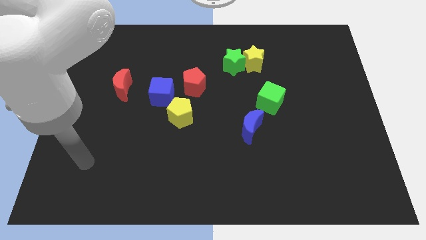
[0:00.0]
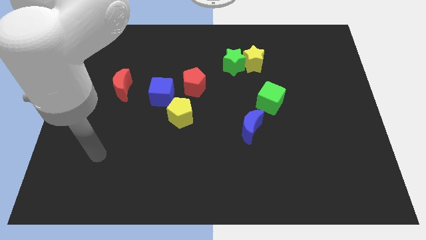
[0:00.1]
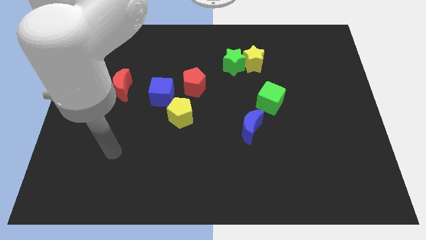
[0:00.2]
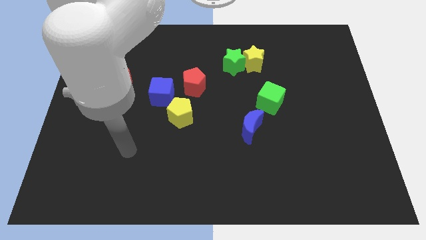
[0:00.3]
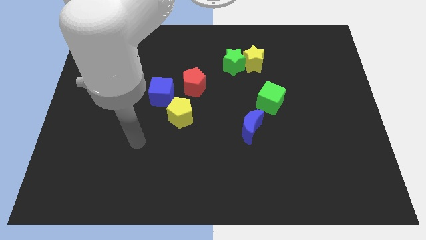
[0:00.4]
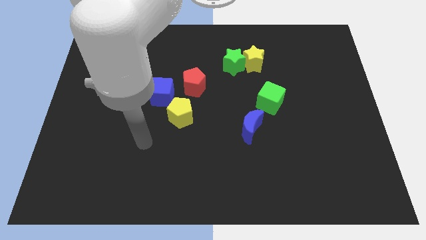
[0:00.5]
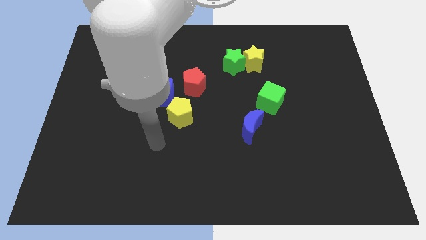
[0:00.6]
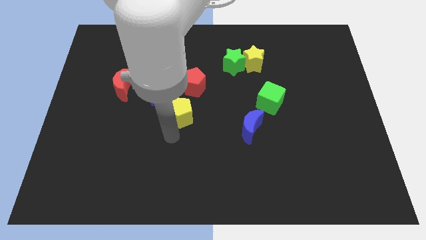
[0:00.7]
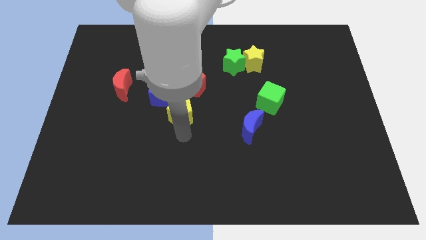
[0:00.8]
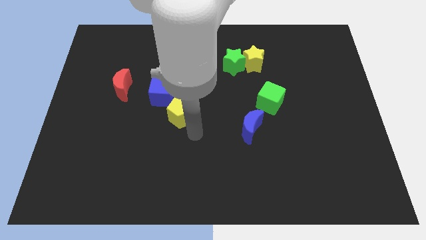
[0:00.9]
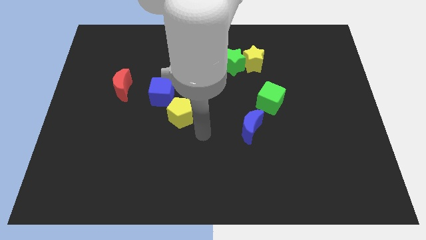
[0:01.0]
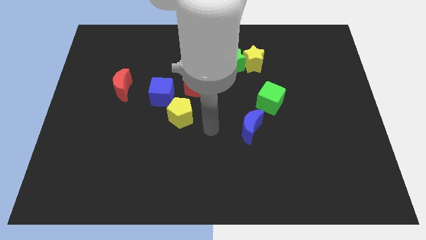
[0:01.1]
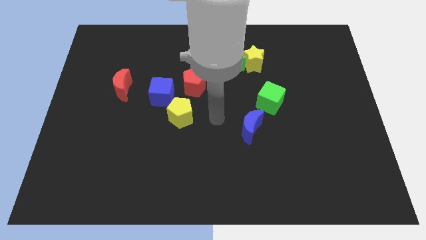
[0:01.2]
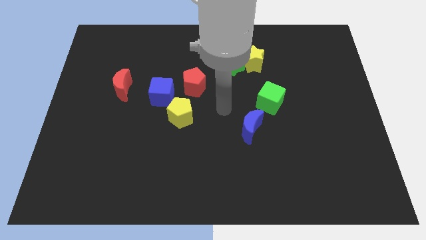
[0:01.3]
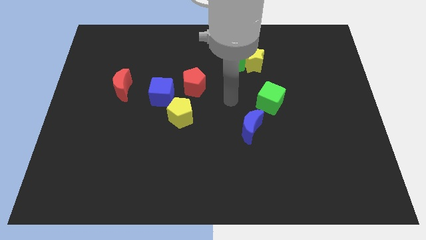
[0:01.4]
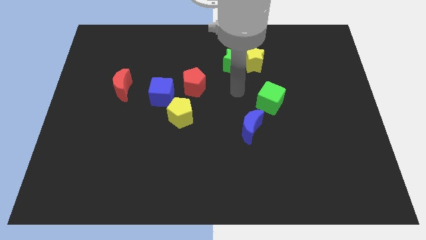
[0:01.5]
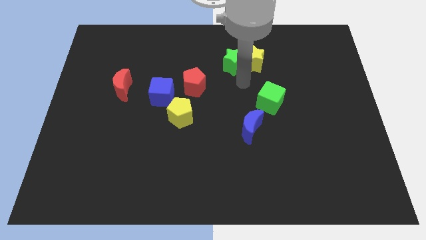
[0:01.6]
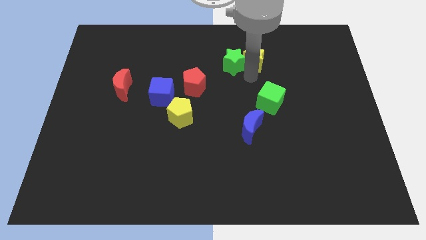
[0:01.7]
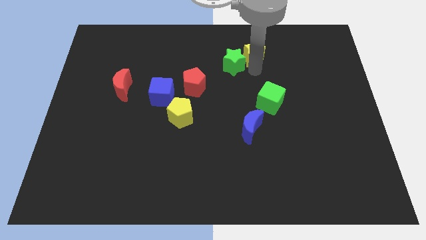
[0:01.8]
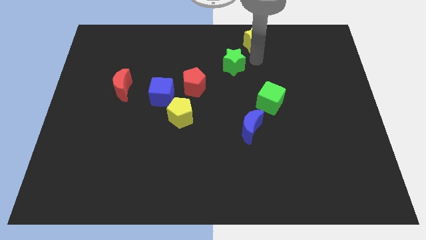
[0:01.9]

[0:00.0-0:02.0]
separate the green star from the yellow star

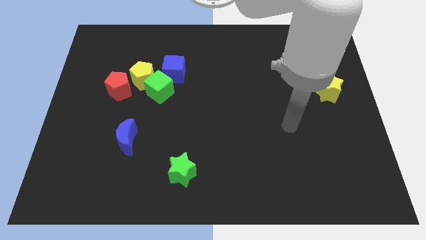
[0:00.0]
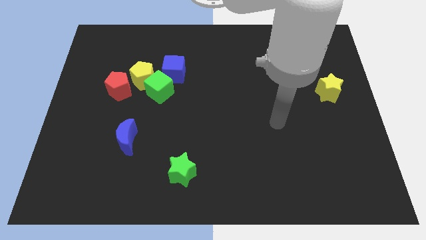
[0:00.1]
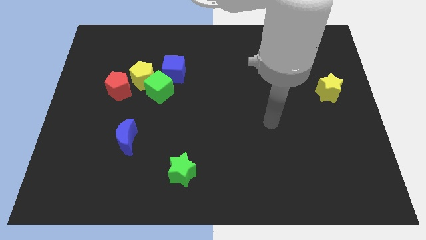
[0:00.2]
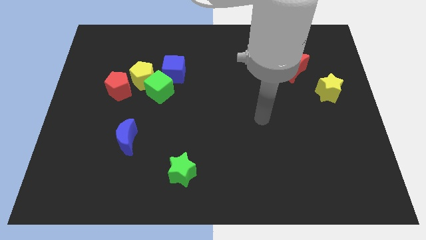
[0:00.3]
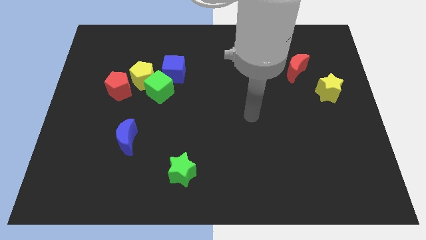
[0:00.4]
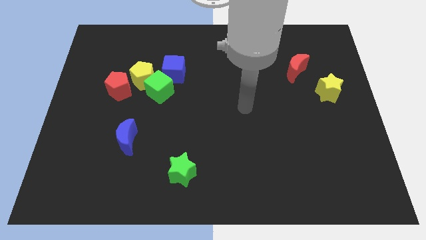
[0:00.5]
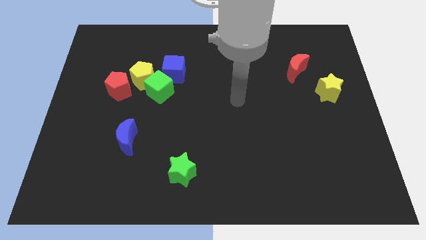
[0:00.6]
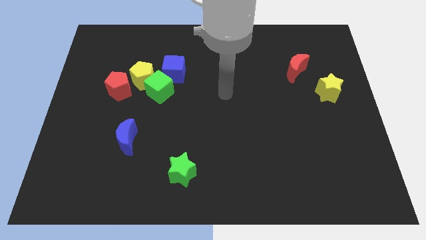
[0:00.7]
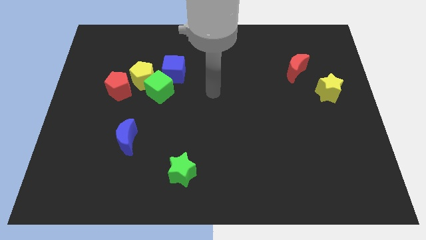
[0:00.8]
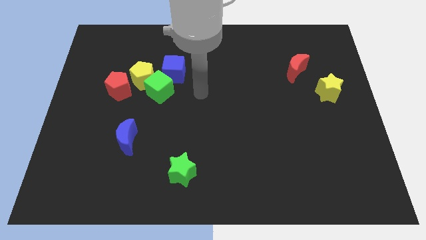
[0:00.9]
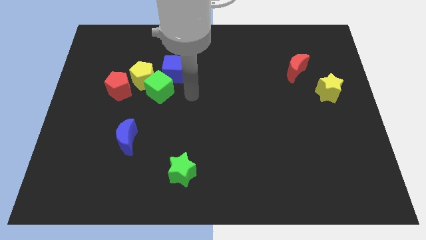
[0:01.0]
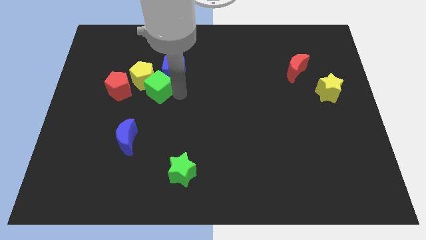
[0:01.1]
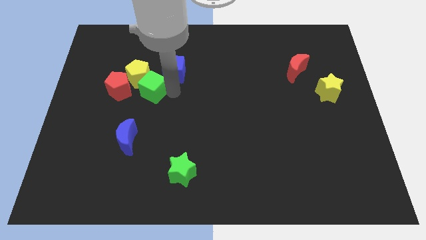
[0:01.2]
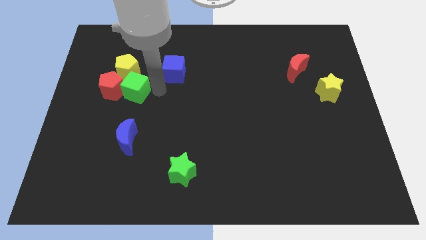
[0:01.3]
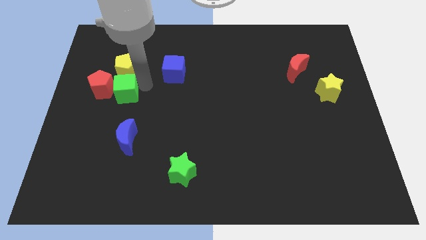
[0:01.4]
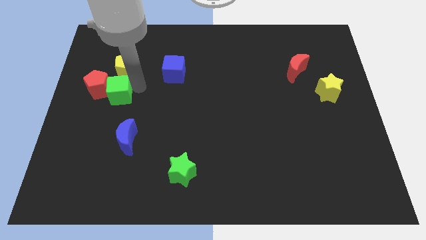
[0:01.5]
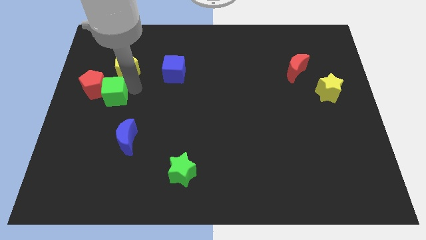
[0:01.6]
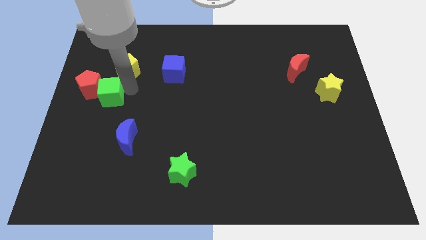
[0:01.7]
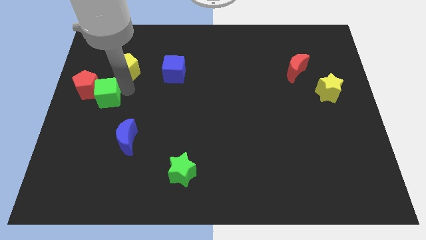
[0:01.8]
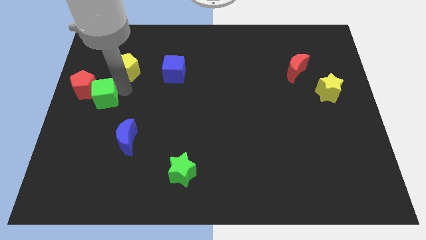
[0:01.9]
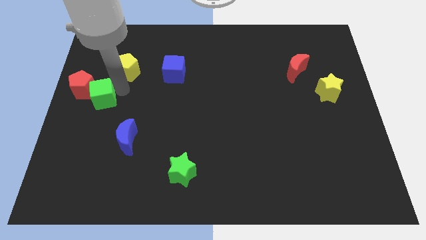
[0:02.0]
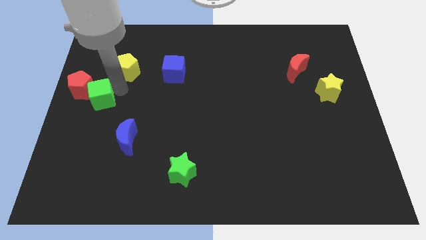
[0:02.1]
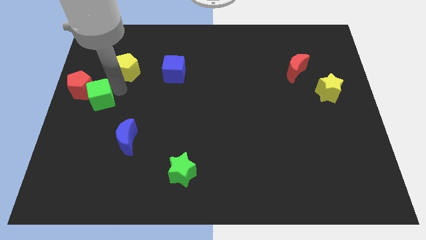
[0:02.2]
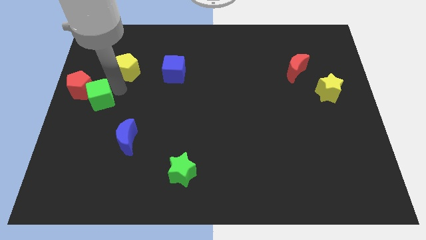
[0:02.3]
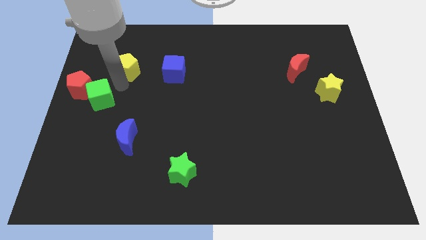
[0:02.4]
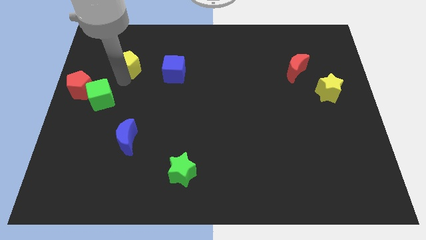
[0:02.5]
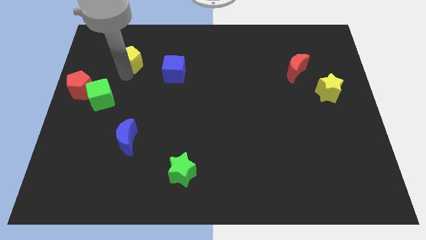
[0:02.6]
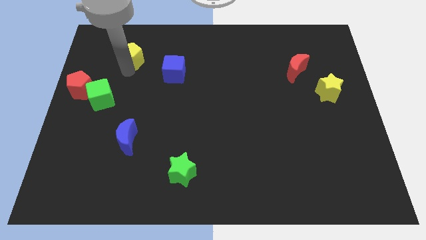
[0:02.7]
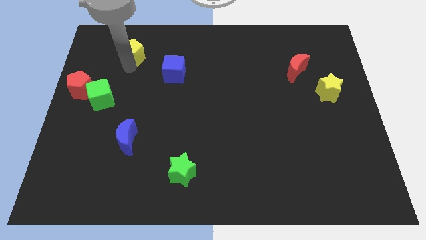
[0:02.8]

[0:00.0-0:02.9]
move the yellow pentagon away from the group of blocks

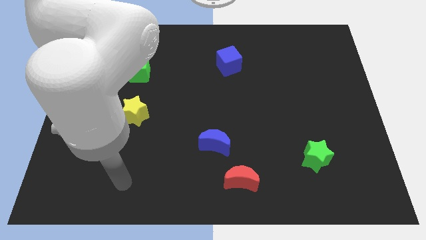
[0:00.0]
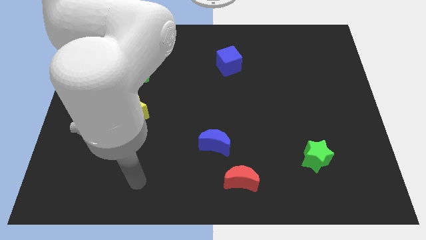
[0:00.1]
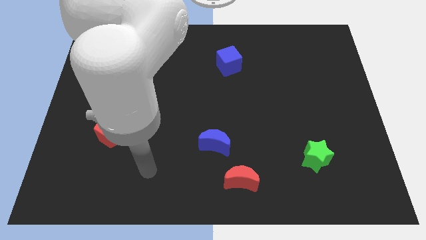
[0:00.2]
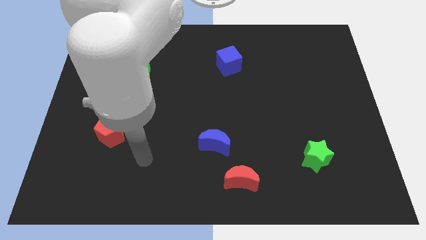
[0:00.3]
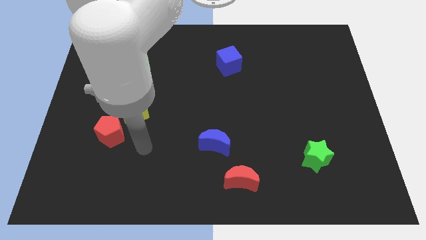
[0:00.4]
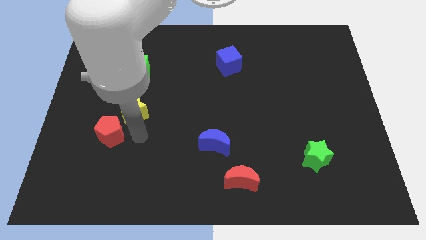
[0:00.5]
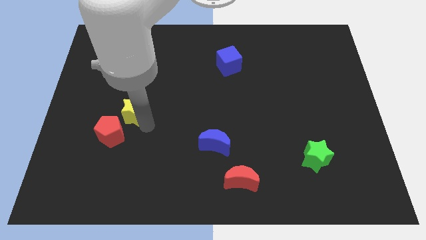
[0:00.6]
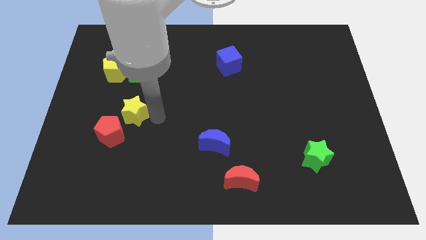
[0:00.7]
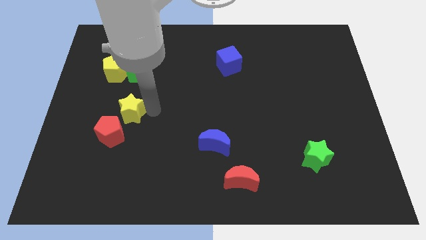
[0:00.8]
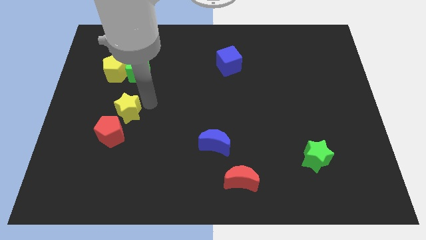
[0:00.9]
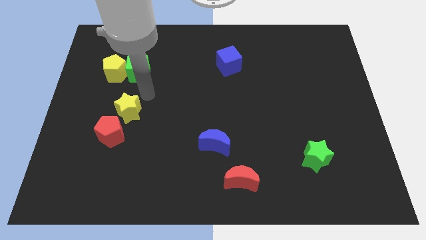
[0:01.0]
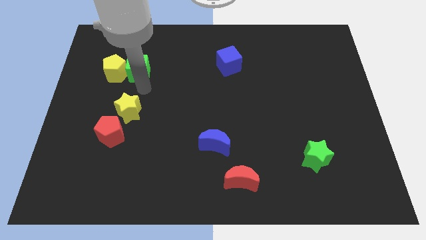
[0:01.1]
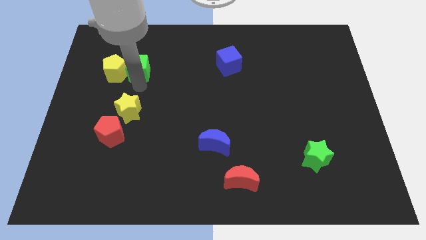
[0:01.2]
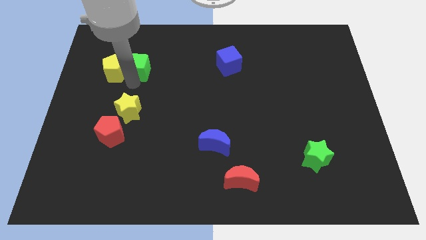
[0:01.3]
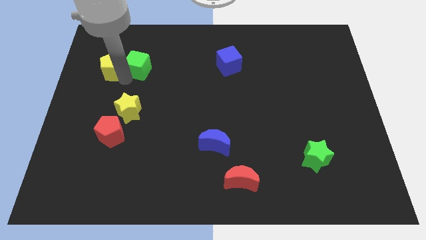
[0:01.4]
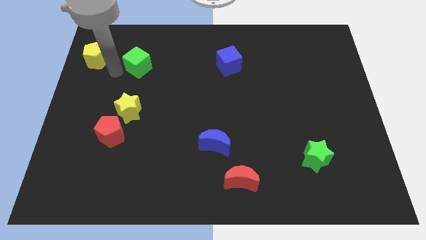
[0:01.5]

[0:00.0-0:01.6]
pull the green cube apart from the yellow pentagon

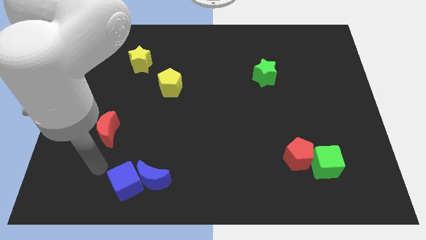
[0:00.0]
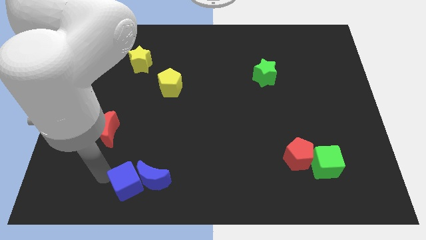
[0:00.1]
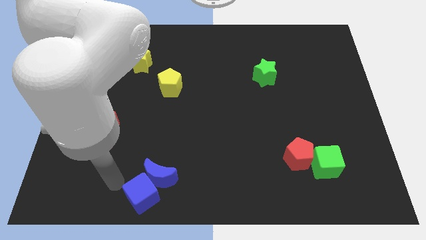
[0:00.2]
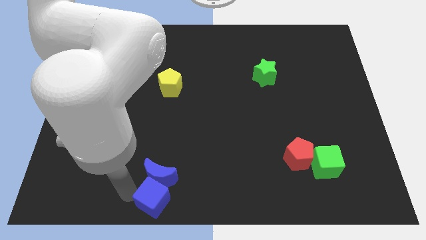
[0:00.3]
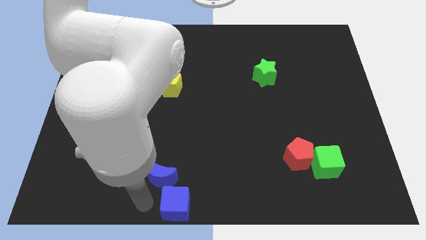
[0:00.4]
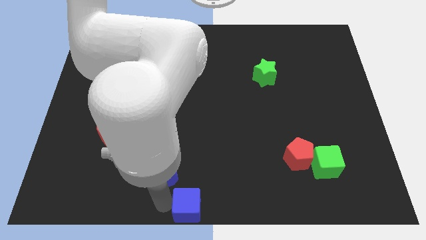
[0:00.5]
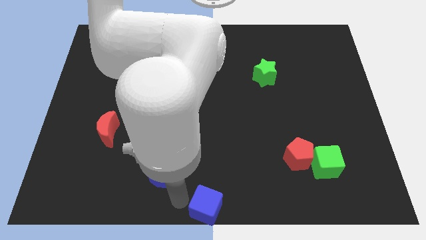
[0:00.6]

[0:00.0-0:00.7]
move the blue moon away from the blue cube

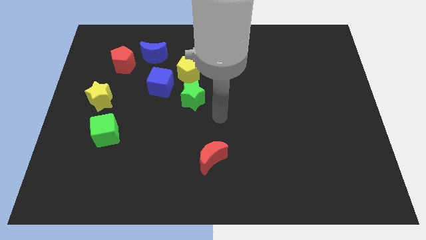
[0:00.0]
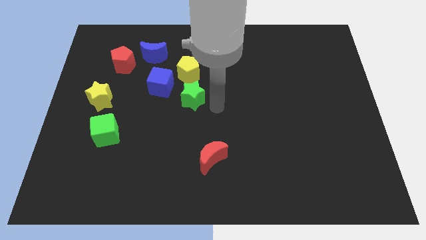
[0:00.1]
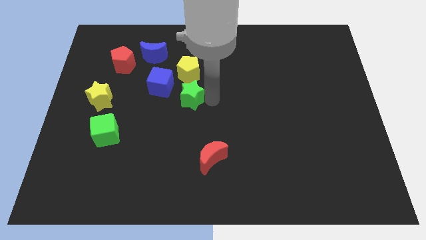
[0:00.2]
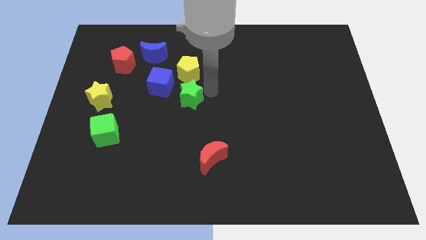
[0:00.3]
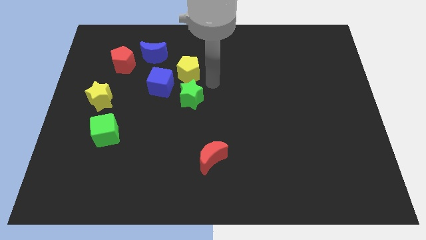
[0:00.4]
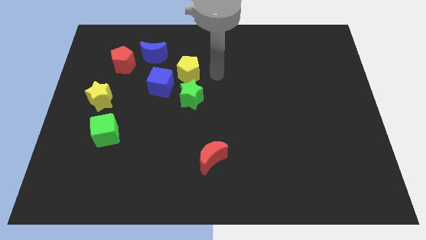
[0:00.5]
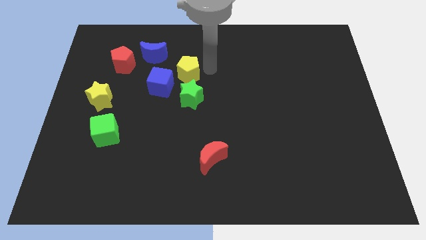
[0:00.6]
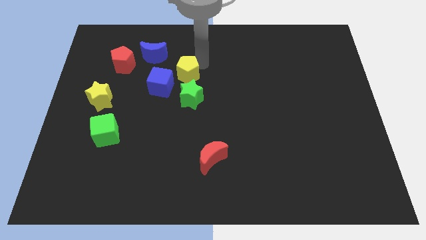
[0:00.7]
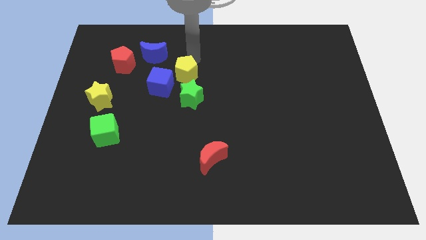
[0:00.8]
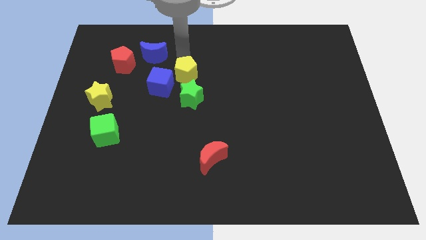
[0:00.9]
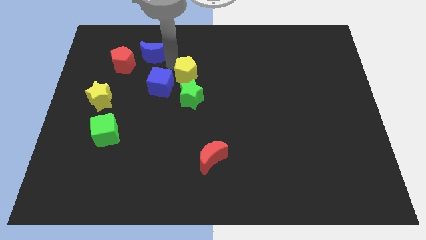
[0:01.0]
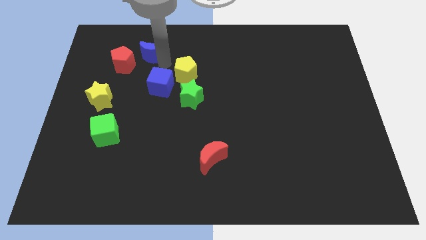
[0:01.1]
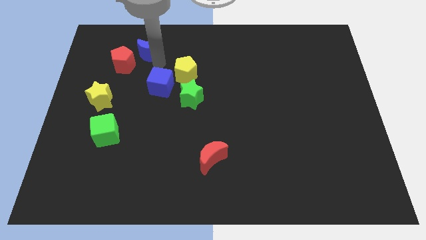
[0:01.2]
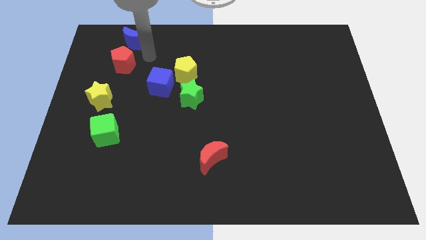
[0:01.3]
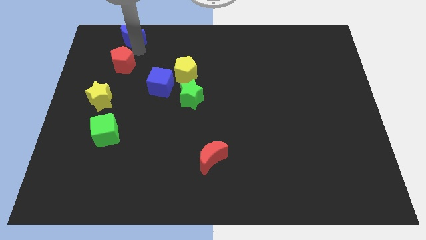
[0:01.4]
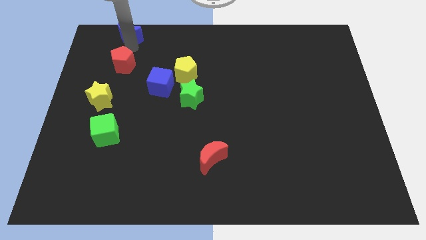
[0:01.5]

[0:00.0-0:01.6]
separate the red pentagon from the blue moon

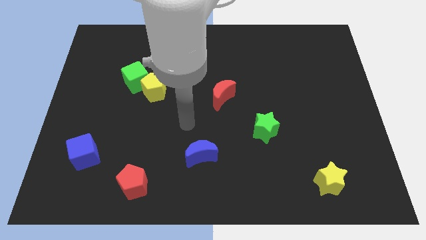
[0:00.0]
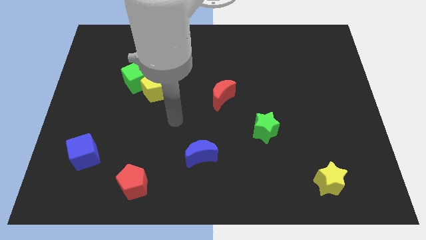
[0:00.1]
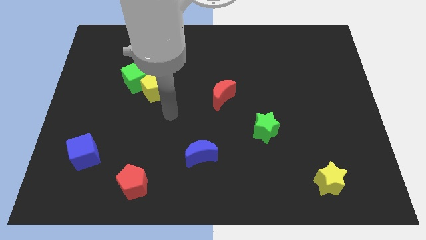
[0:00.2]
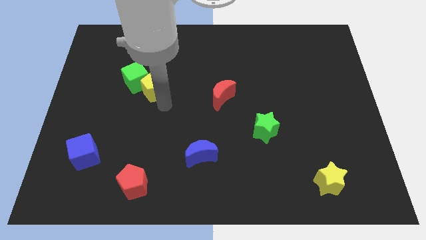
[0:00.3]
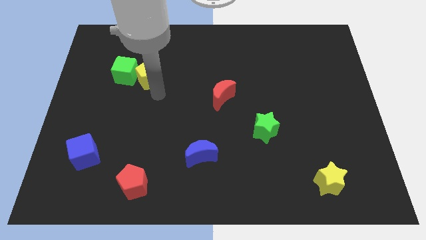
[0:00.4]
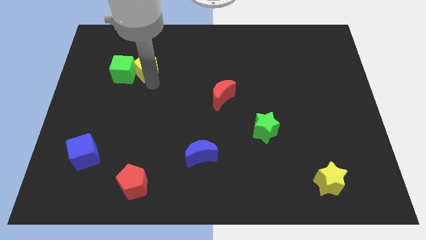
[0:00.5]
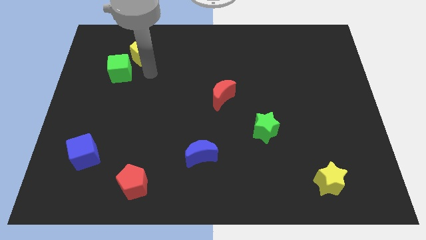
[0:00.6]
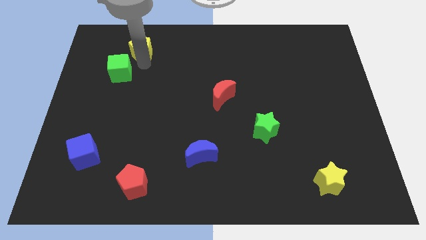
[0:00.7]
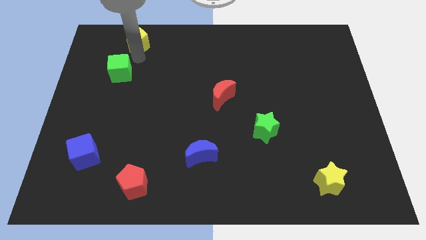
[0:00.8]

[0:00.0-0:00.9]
separate the green cube from the yellow pentagon
